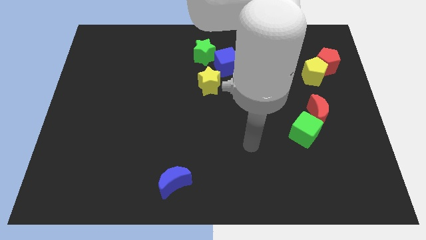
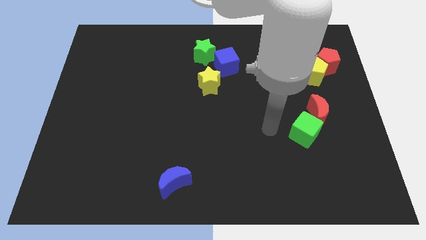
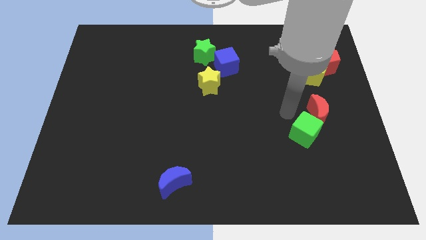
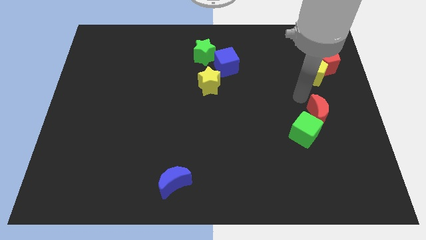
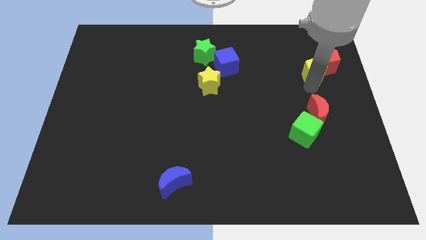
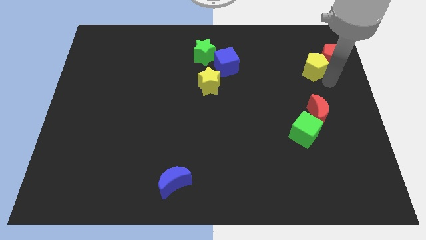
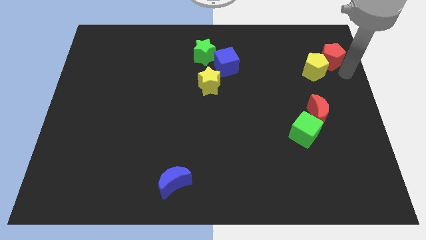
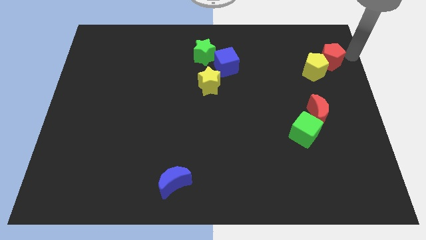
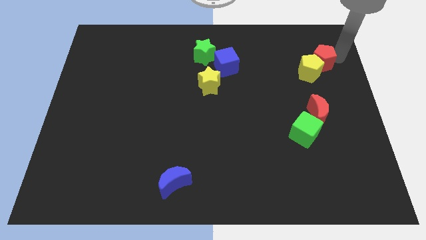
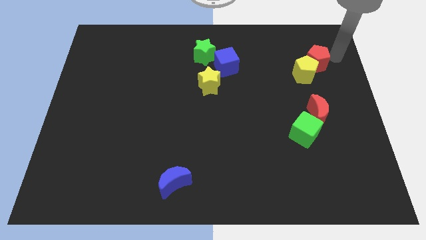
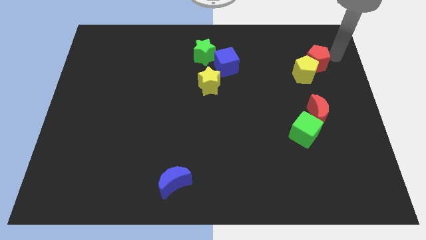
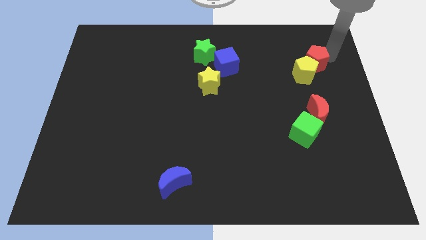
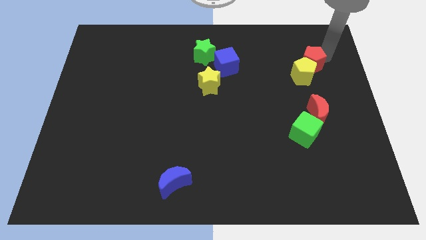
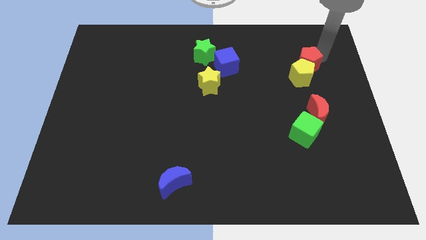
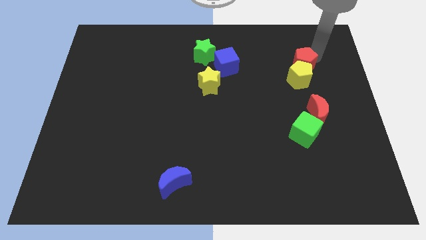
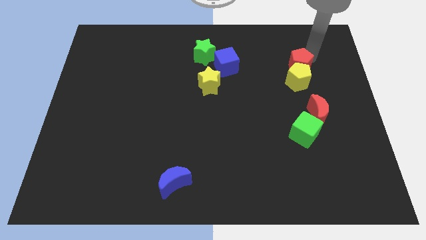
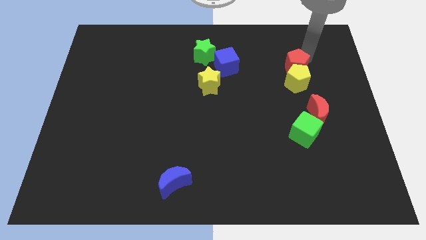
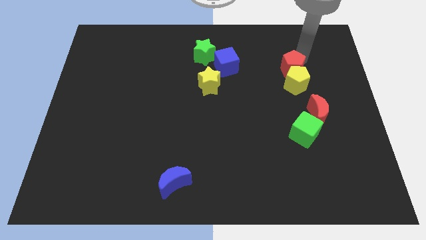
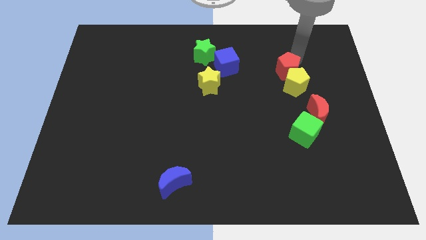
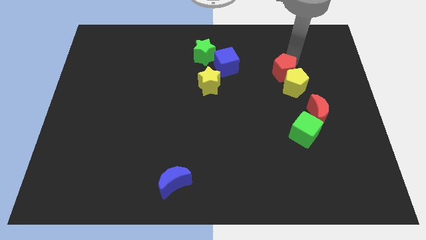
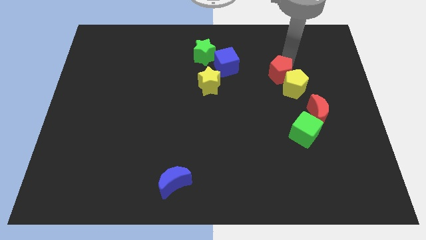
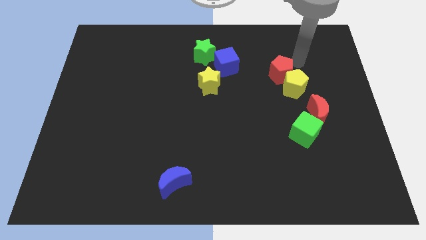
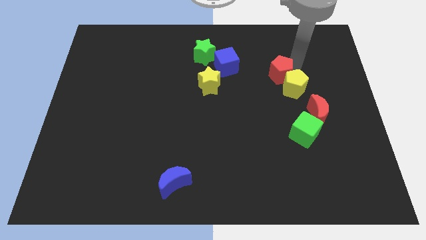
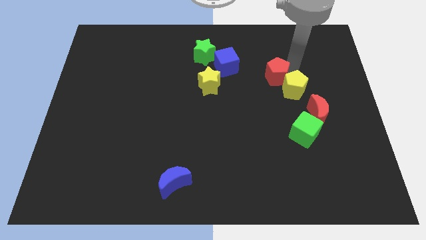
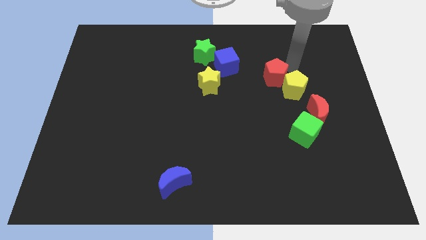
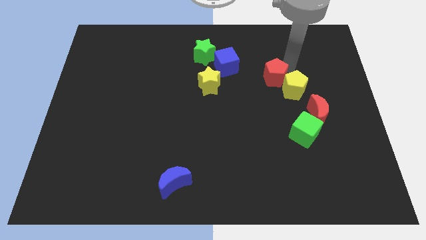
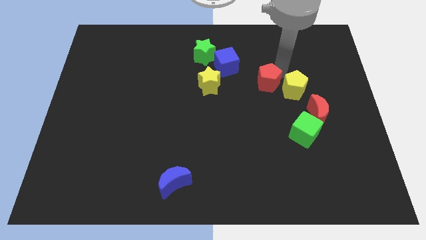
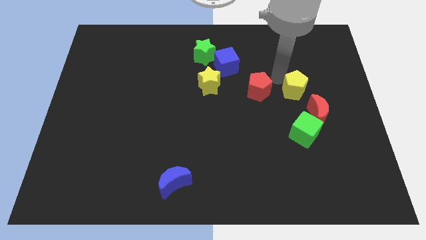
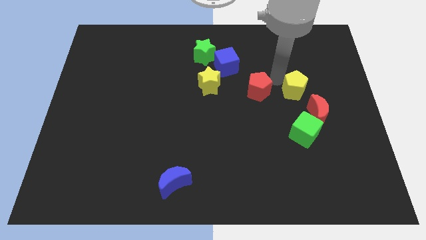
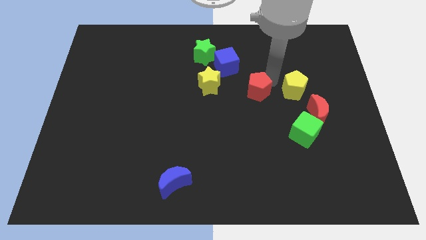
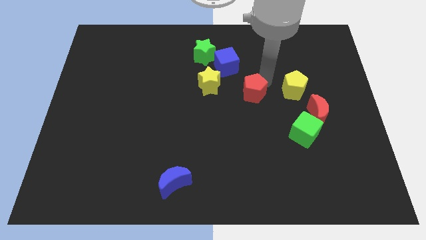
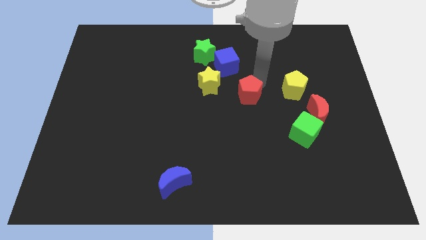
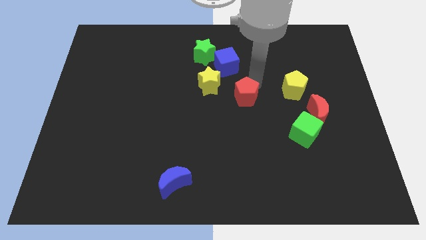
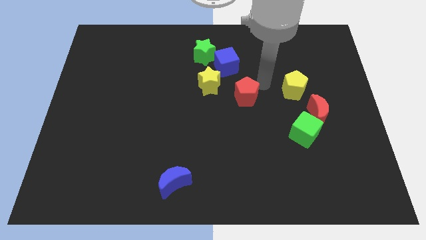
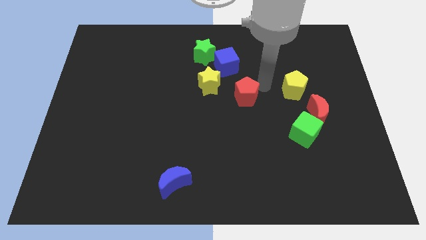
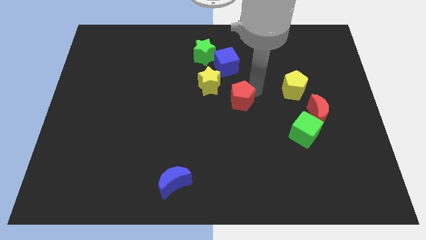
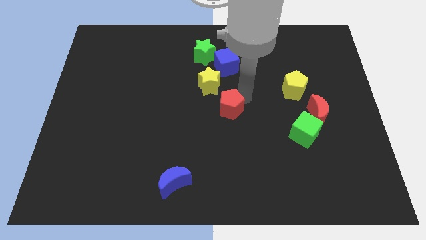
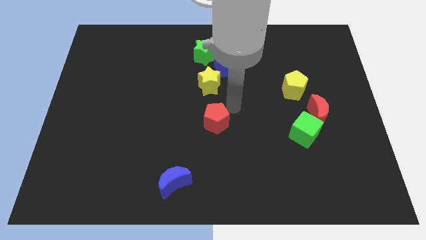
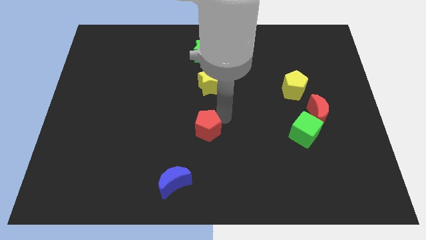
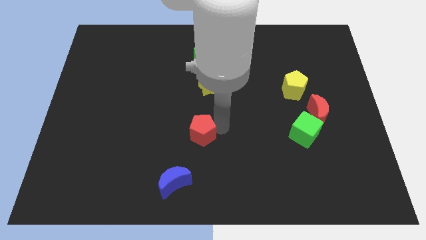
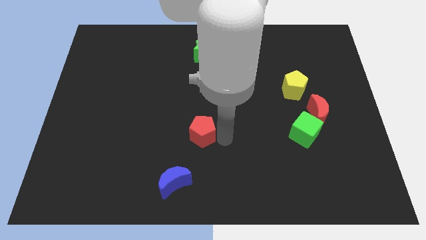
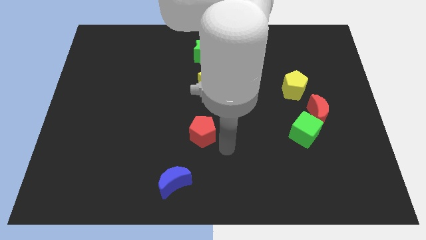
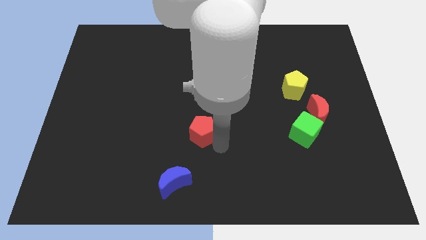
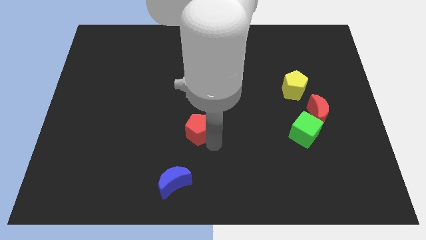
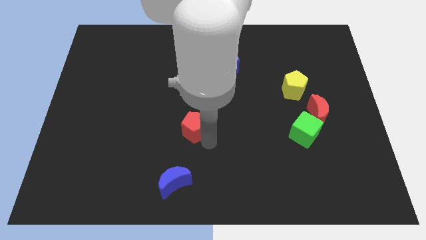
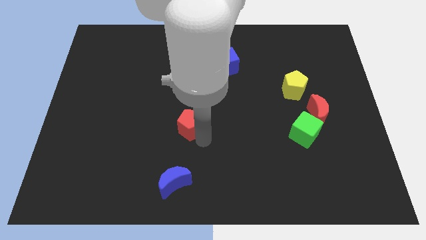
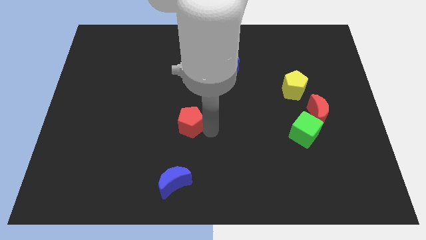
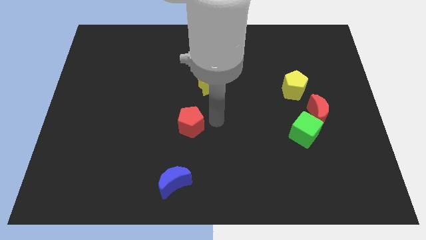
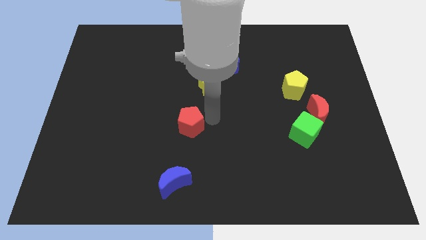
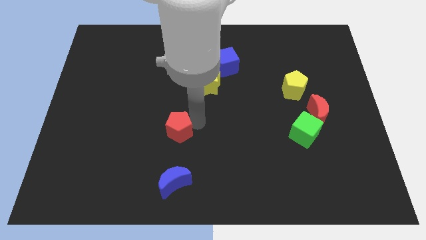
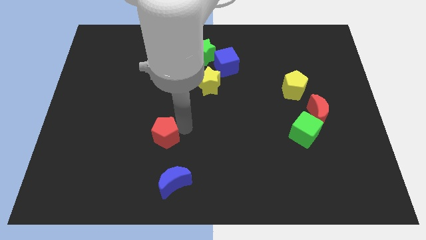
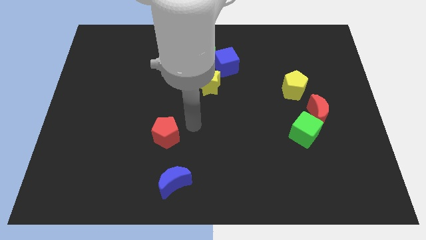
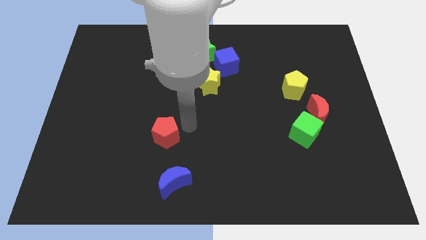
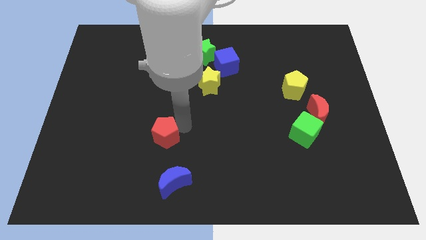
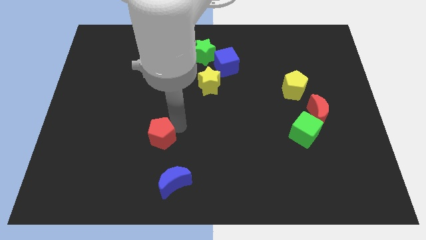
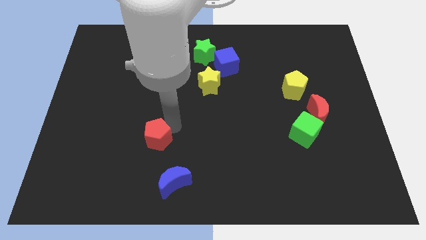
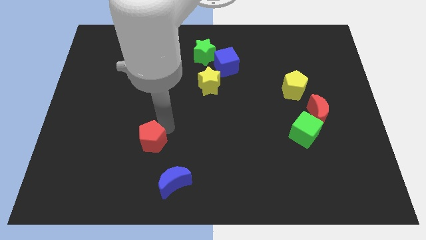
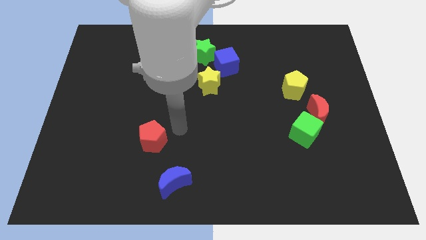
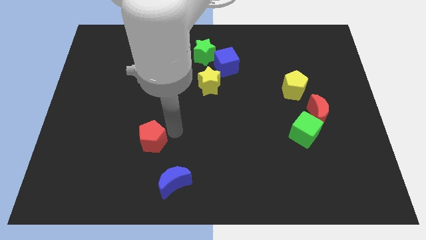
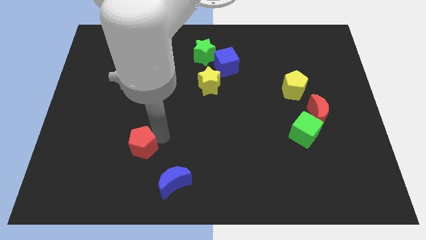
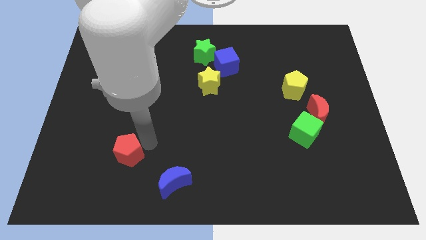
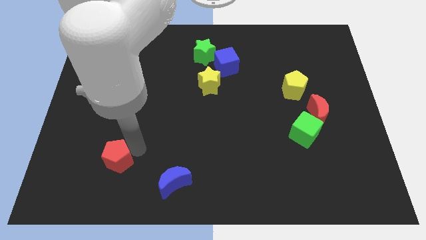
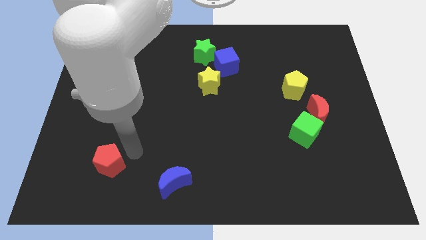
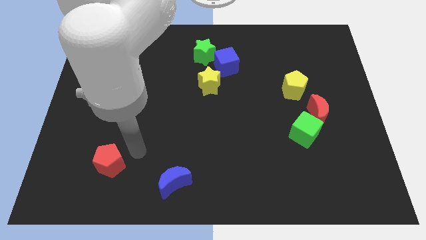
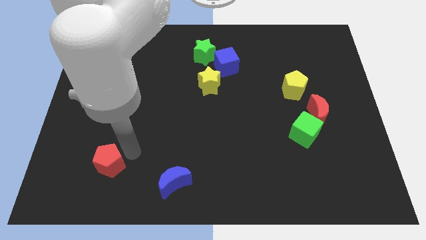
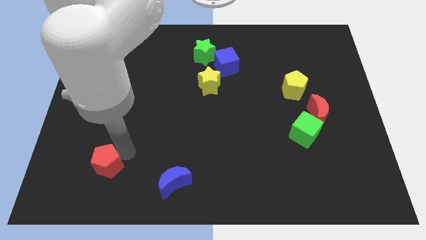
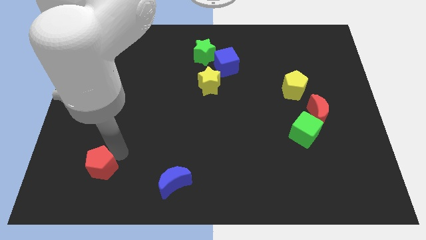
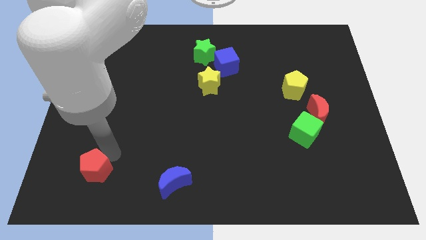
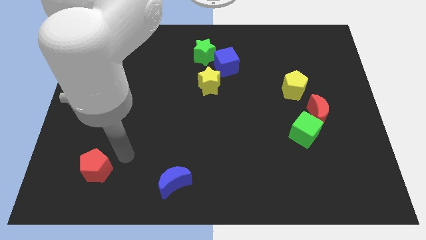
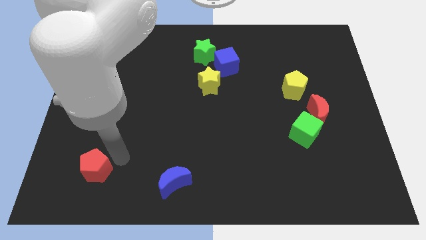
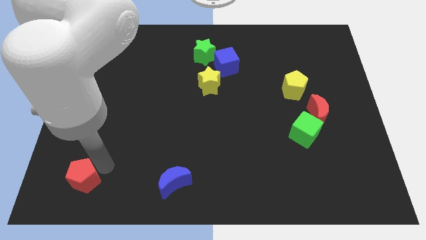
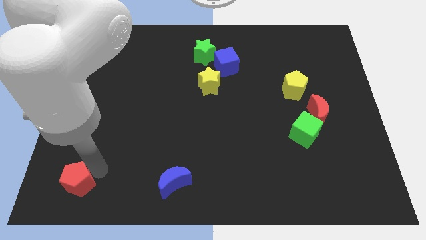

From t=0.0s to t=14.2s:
push the red pentagon to the bottom left of the board
